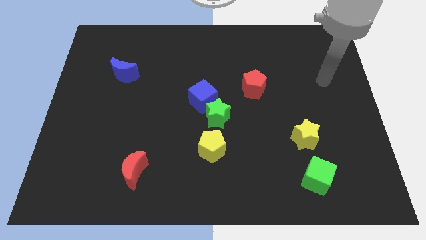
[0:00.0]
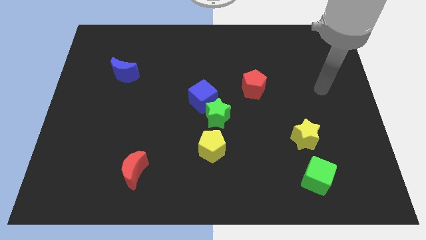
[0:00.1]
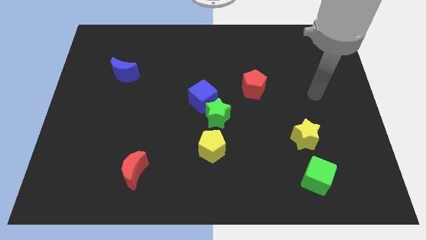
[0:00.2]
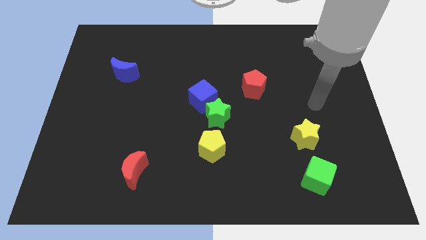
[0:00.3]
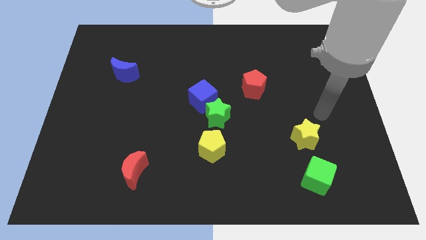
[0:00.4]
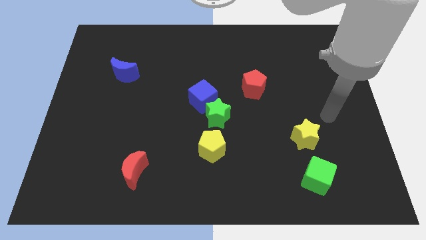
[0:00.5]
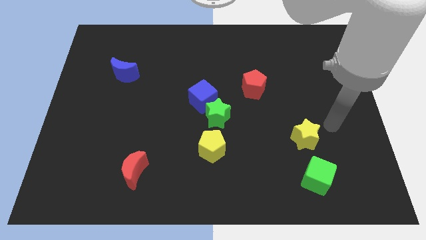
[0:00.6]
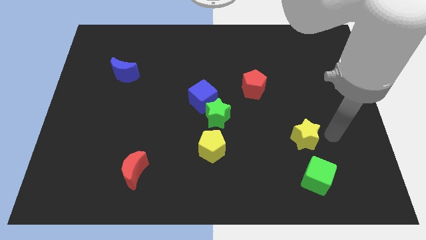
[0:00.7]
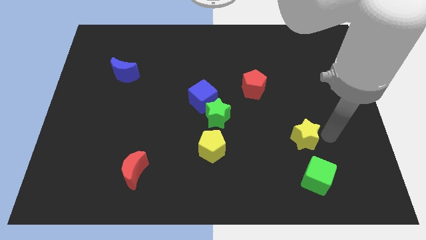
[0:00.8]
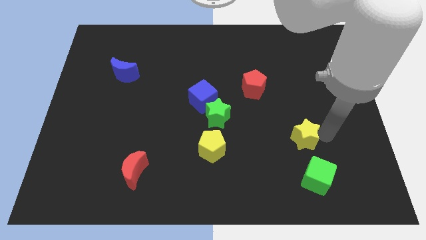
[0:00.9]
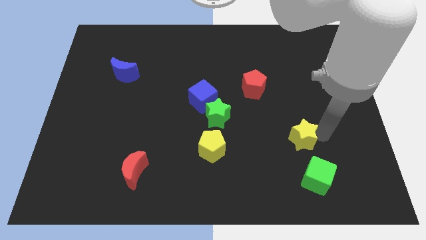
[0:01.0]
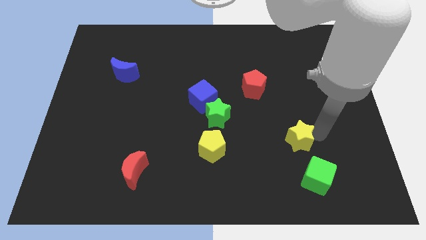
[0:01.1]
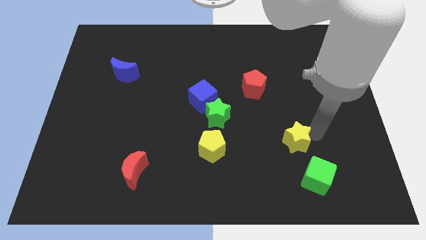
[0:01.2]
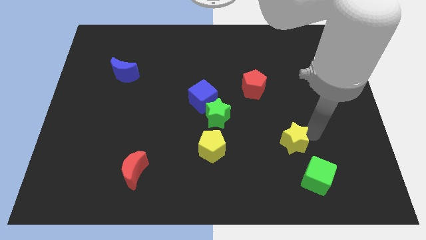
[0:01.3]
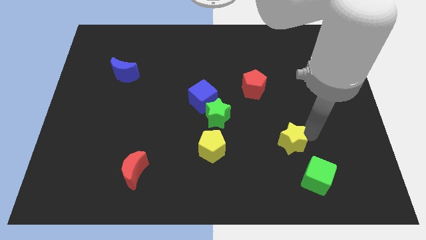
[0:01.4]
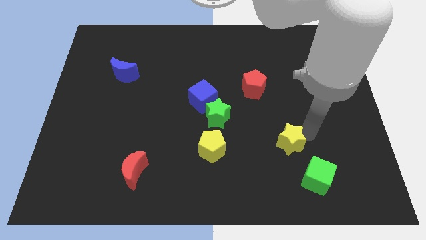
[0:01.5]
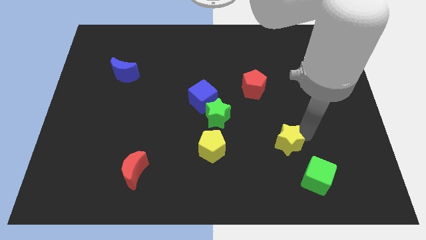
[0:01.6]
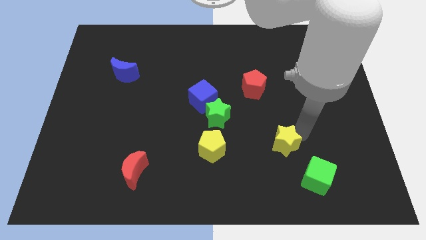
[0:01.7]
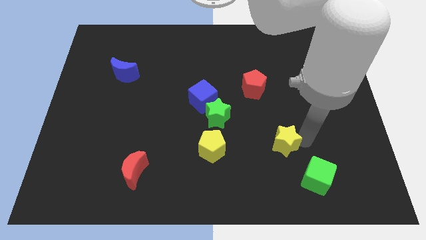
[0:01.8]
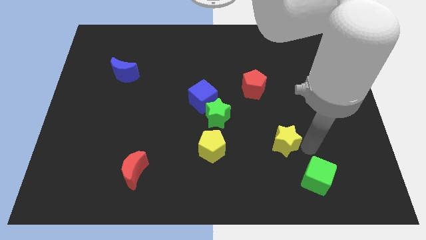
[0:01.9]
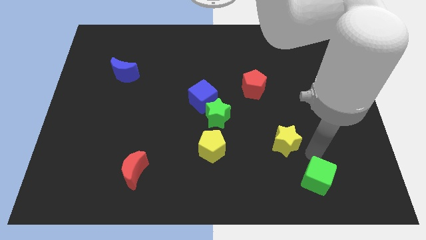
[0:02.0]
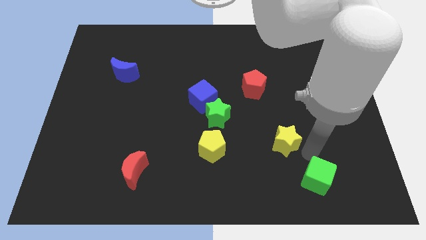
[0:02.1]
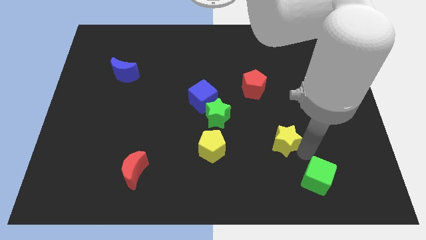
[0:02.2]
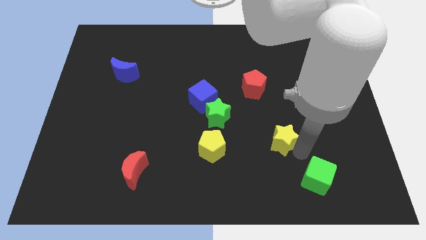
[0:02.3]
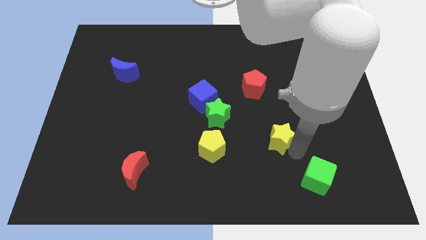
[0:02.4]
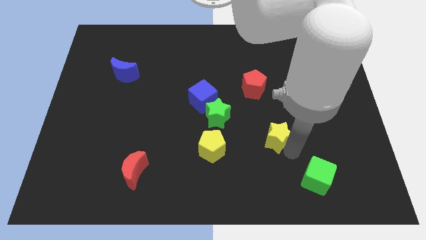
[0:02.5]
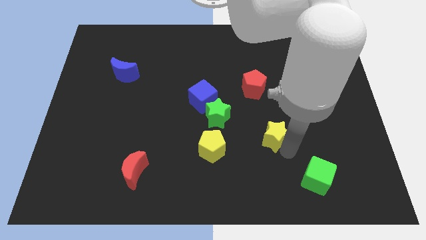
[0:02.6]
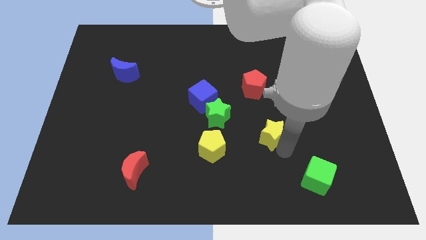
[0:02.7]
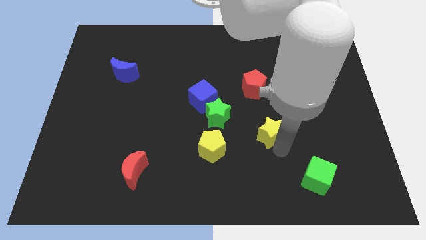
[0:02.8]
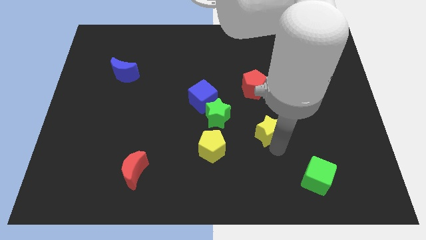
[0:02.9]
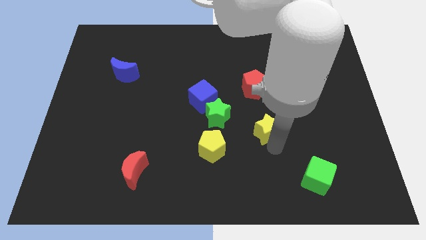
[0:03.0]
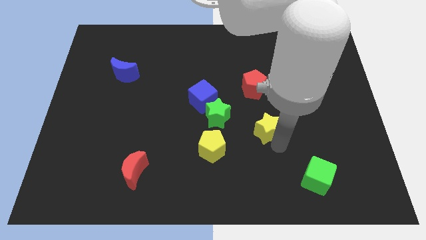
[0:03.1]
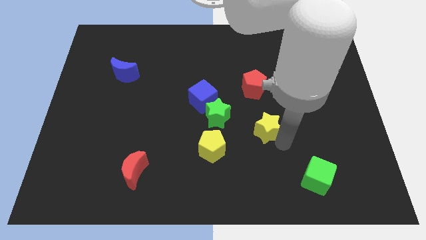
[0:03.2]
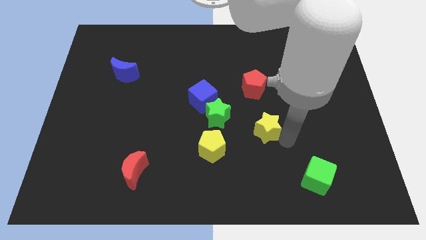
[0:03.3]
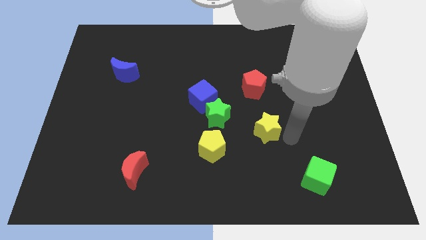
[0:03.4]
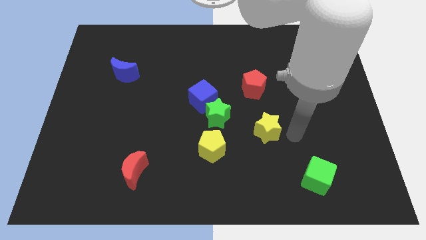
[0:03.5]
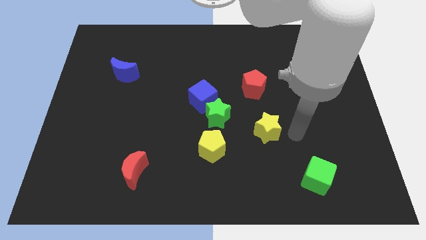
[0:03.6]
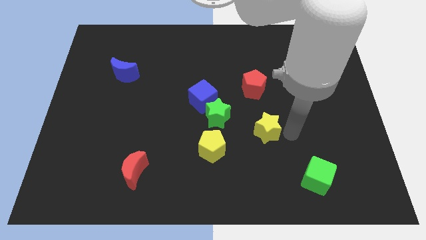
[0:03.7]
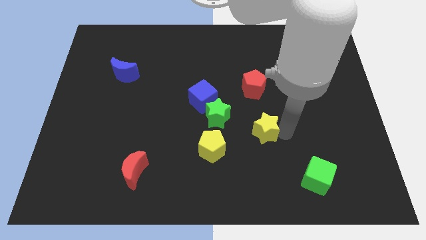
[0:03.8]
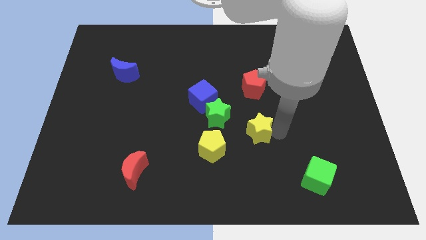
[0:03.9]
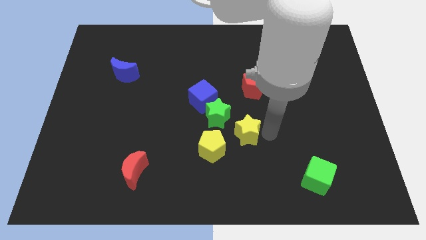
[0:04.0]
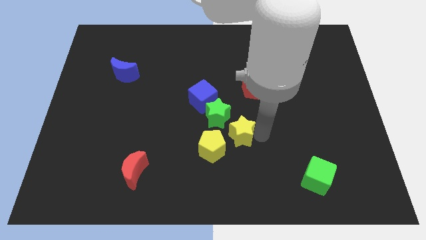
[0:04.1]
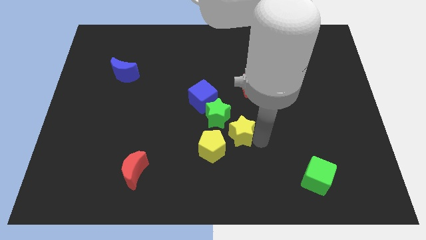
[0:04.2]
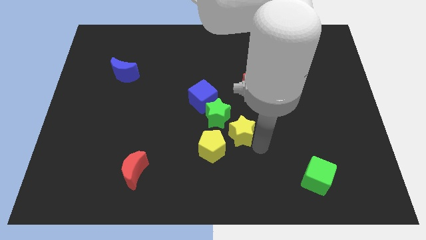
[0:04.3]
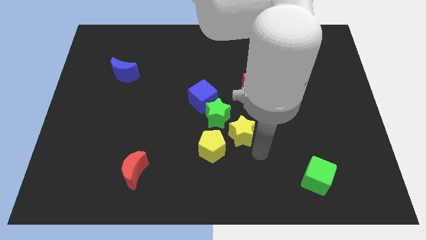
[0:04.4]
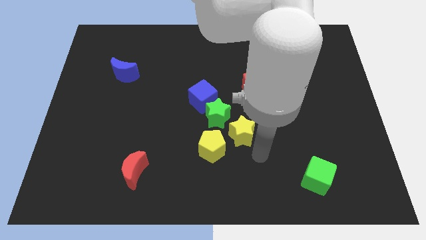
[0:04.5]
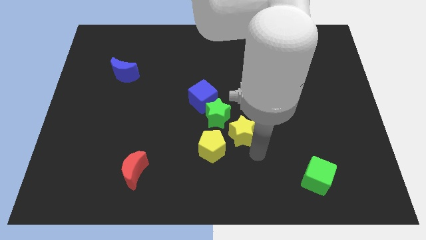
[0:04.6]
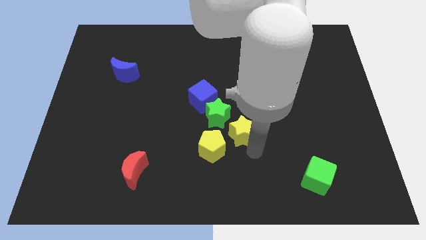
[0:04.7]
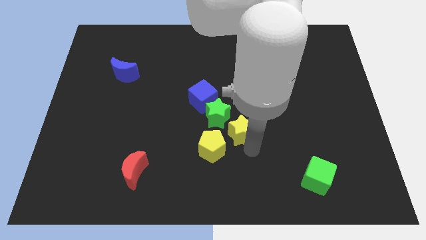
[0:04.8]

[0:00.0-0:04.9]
move the yellow star to the bottom right side of the blue cube

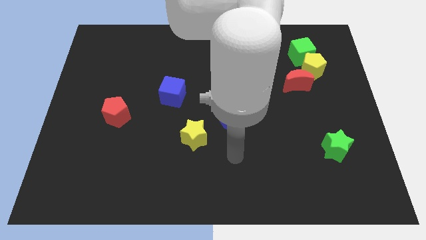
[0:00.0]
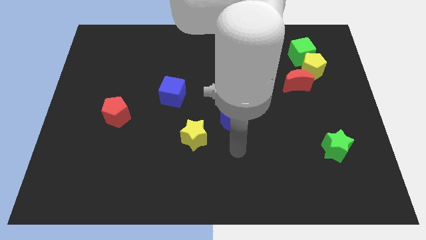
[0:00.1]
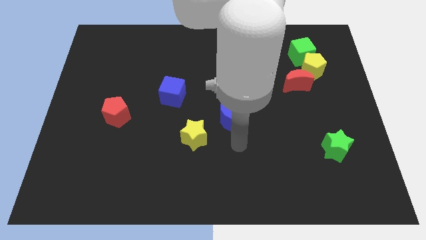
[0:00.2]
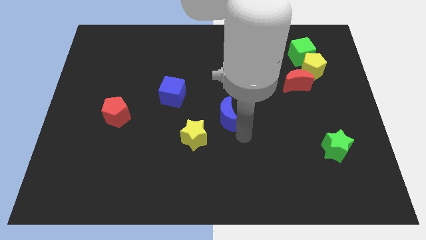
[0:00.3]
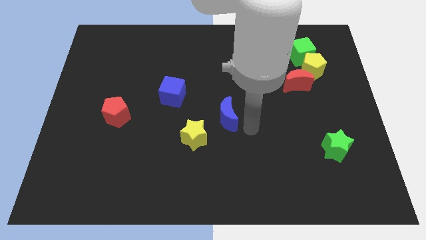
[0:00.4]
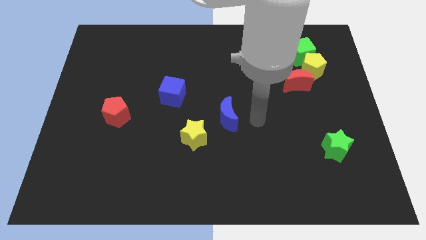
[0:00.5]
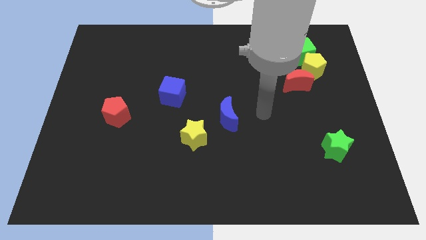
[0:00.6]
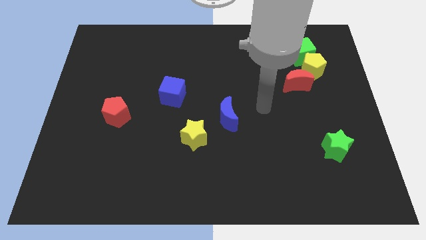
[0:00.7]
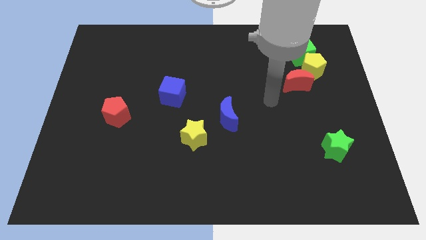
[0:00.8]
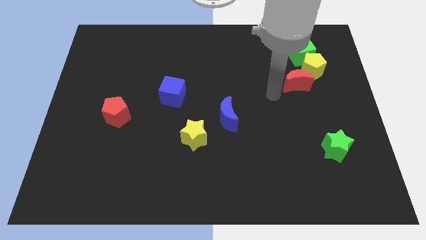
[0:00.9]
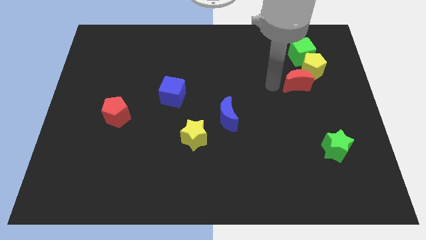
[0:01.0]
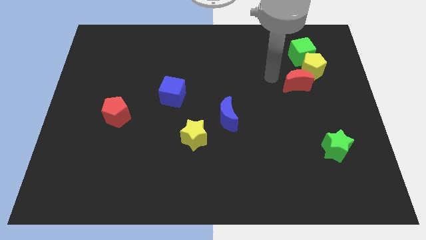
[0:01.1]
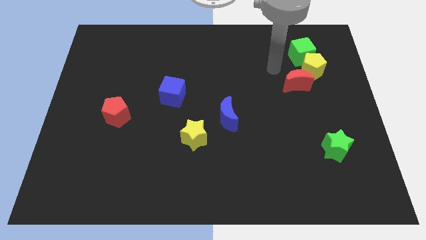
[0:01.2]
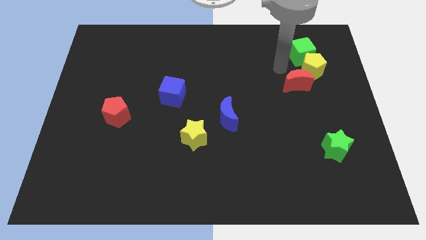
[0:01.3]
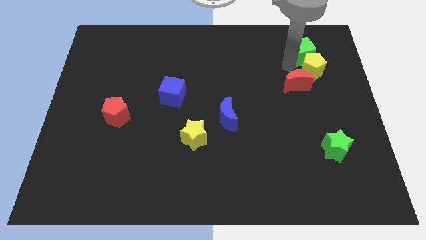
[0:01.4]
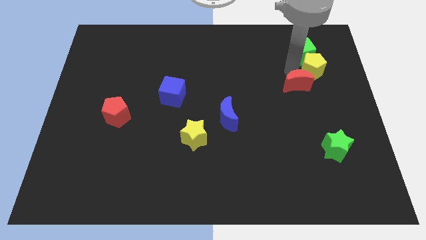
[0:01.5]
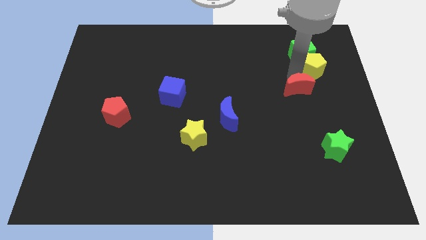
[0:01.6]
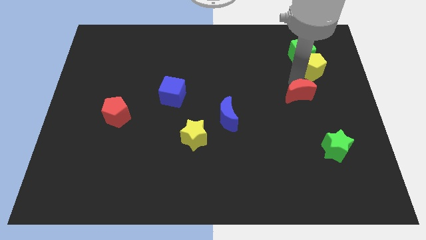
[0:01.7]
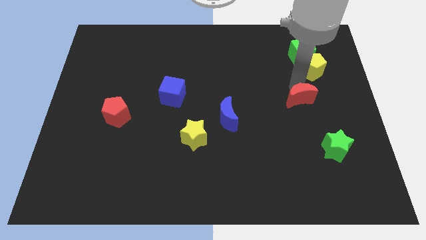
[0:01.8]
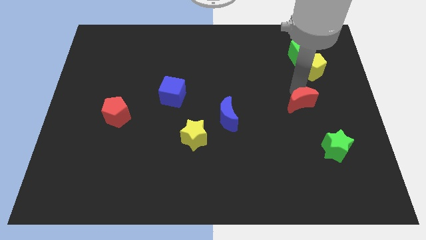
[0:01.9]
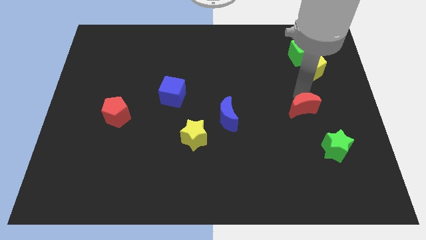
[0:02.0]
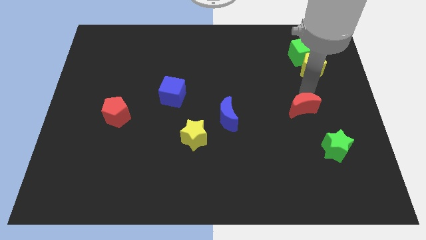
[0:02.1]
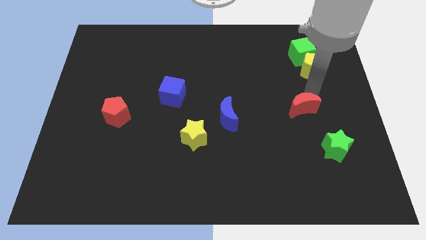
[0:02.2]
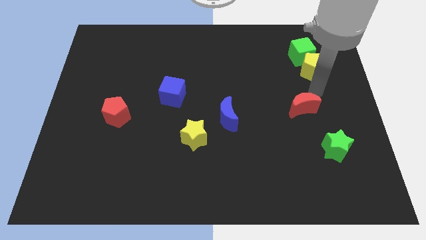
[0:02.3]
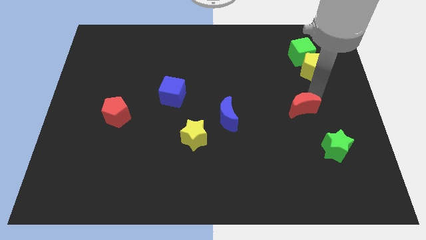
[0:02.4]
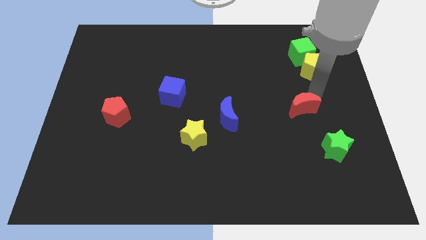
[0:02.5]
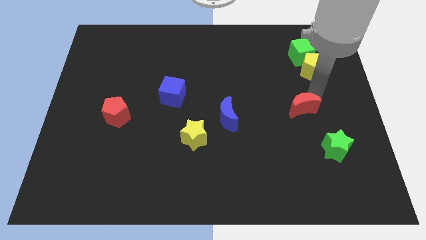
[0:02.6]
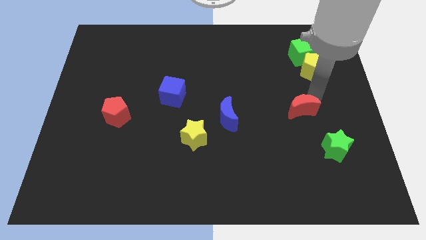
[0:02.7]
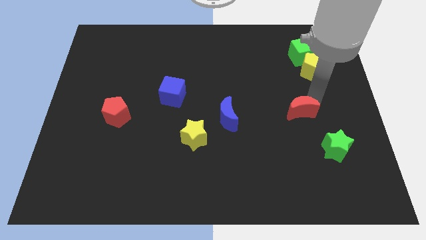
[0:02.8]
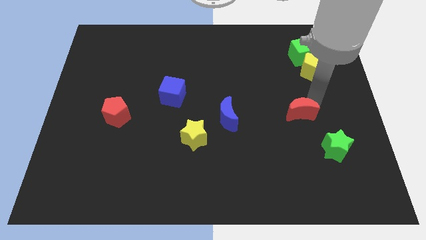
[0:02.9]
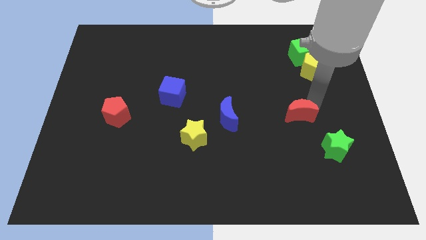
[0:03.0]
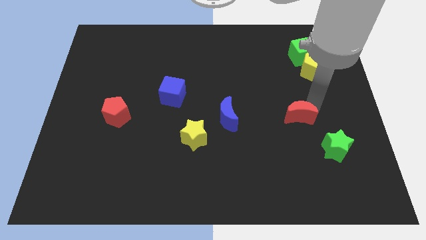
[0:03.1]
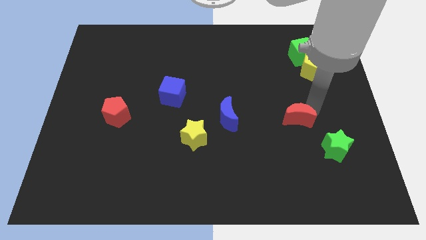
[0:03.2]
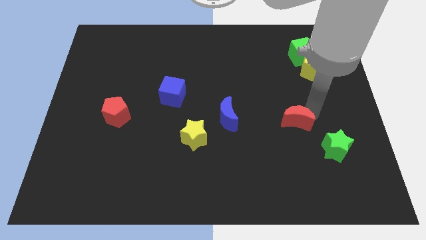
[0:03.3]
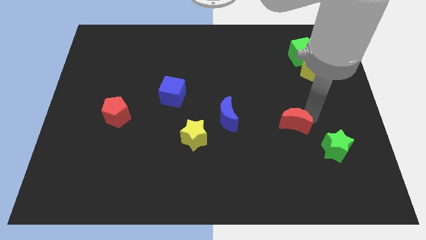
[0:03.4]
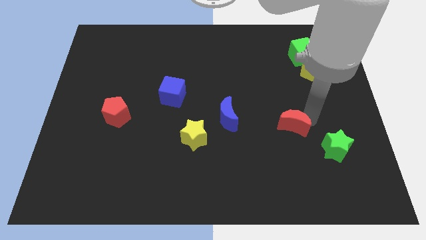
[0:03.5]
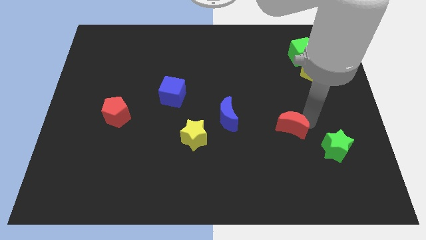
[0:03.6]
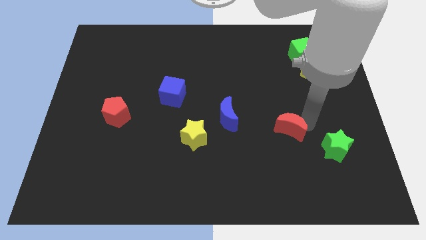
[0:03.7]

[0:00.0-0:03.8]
slide the red moon to the left of the green star
